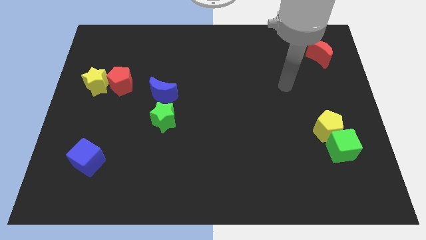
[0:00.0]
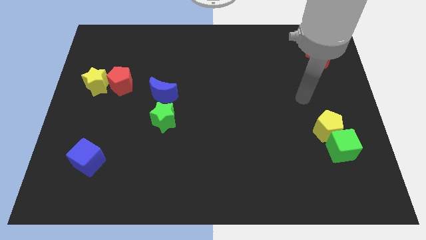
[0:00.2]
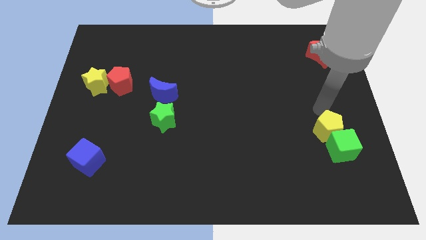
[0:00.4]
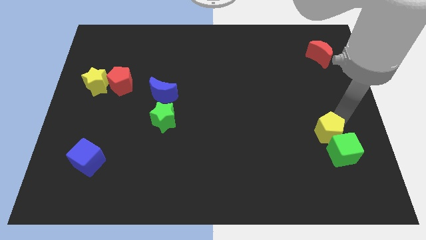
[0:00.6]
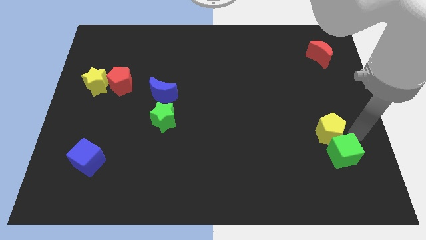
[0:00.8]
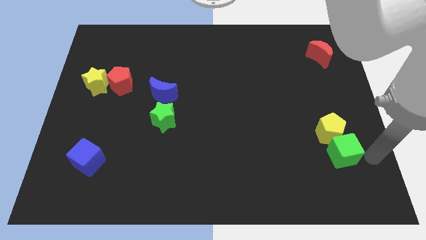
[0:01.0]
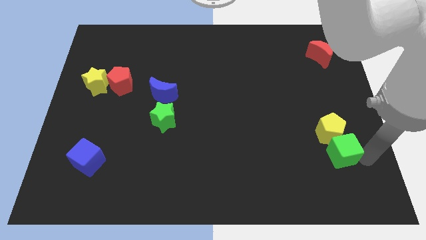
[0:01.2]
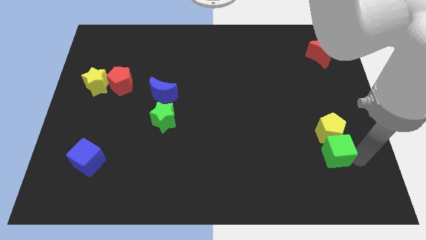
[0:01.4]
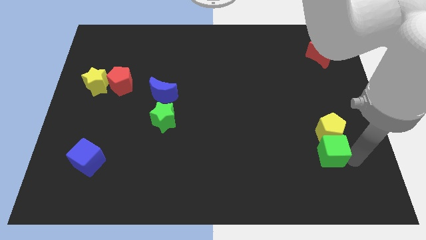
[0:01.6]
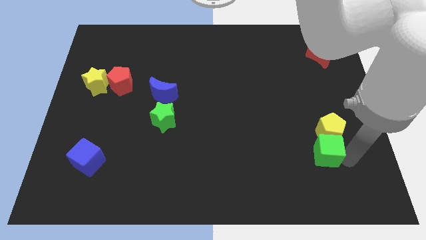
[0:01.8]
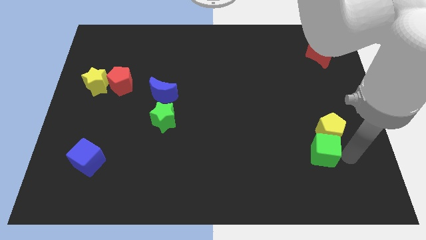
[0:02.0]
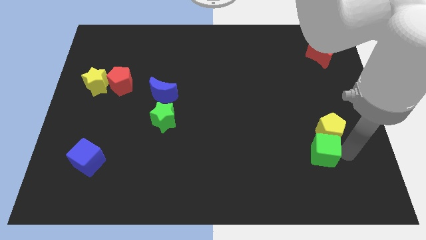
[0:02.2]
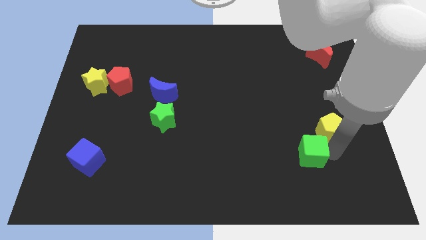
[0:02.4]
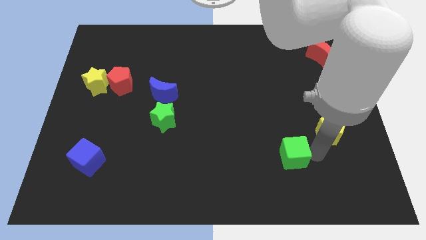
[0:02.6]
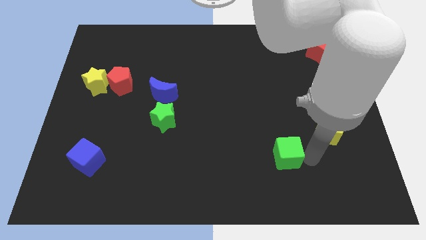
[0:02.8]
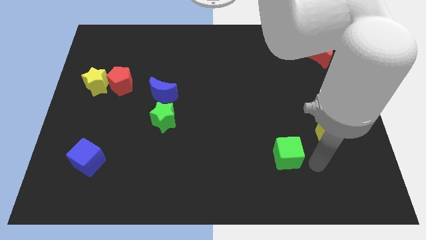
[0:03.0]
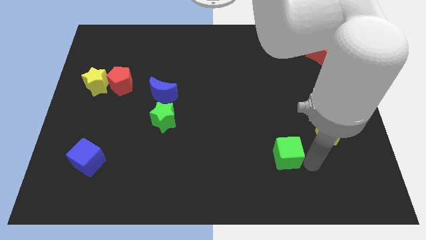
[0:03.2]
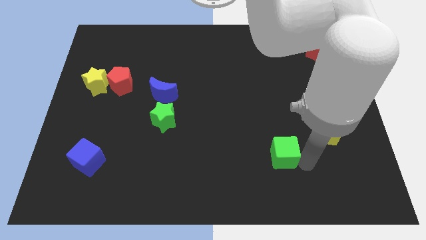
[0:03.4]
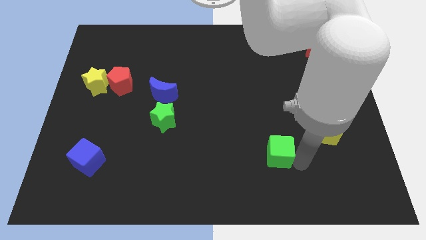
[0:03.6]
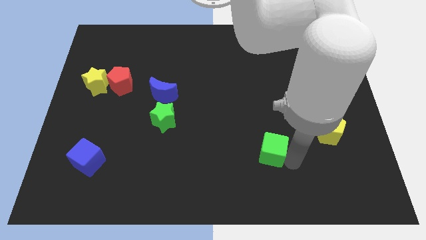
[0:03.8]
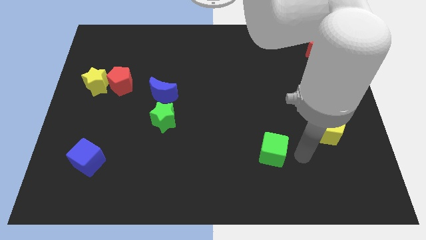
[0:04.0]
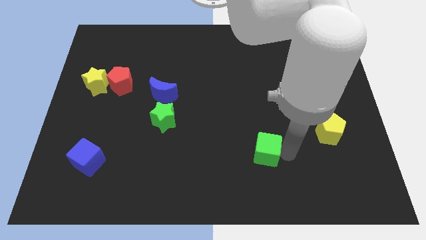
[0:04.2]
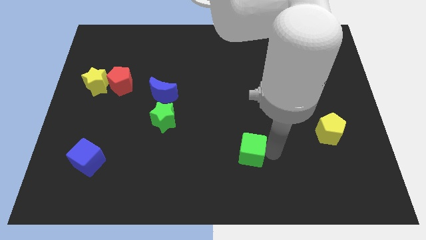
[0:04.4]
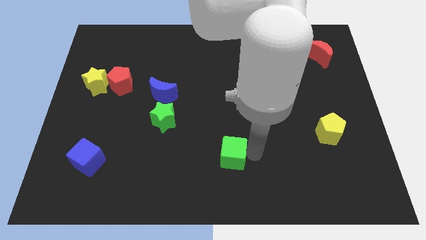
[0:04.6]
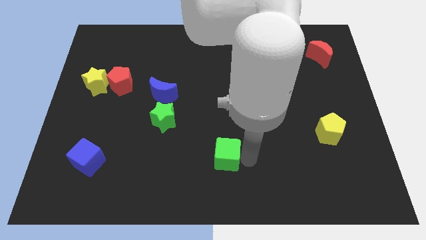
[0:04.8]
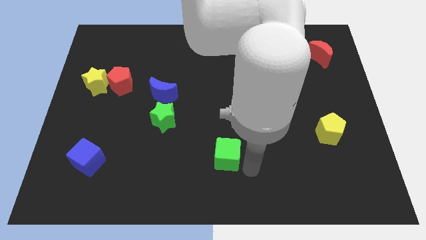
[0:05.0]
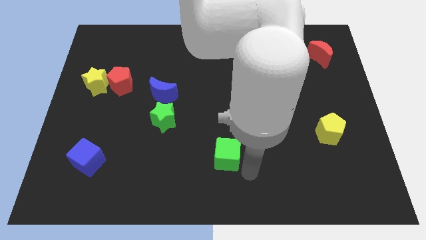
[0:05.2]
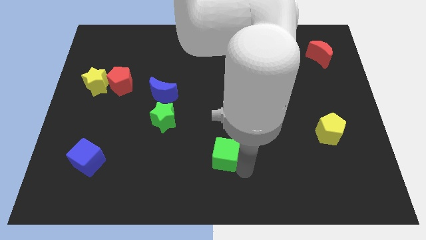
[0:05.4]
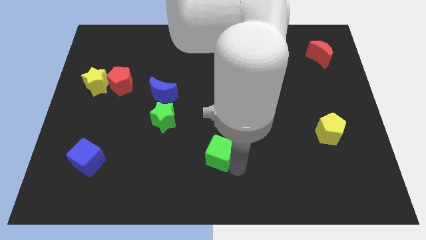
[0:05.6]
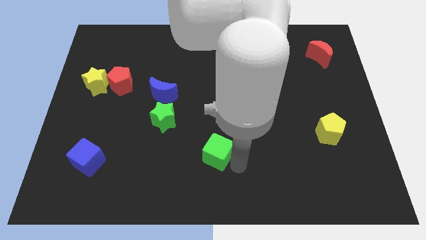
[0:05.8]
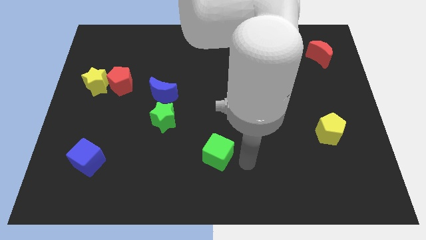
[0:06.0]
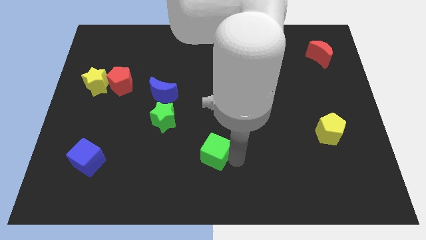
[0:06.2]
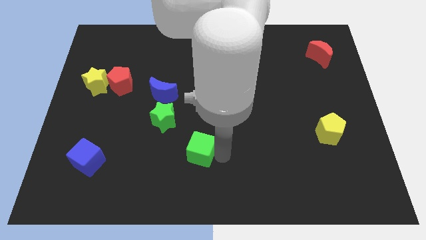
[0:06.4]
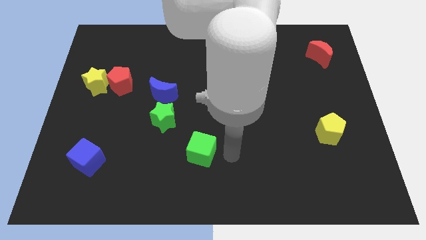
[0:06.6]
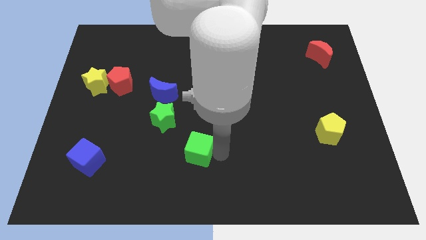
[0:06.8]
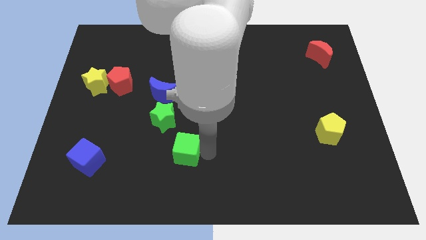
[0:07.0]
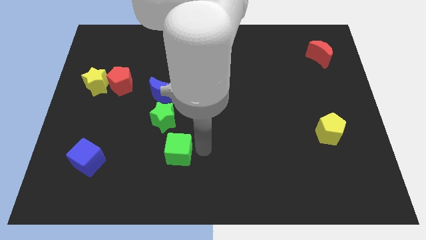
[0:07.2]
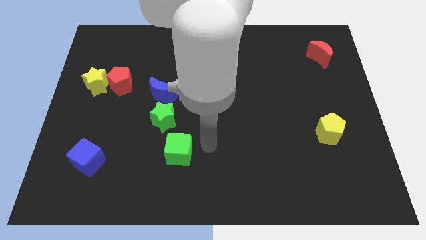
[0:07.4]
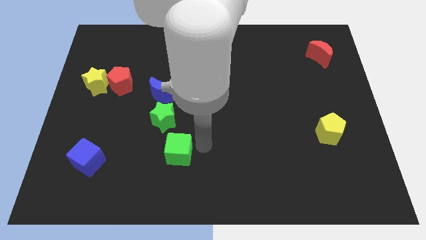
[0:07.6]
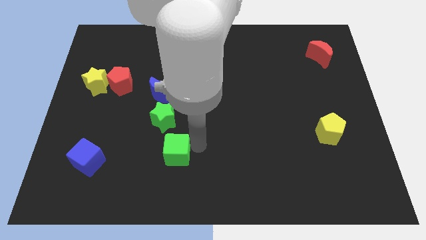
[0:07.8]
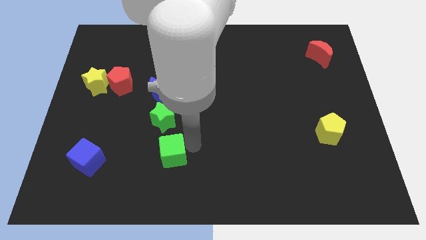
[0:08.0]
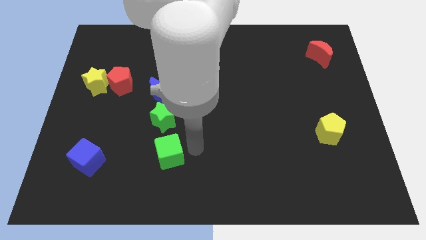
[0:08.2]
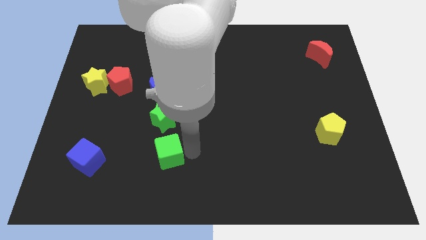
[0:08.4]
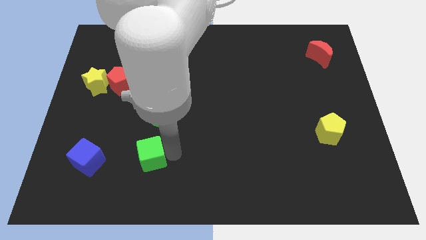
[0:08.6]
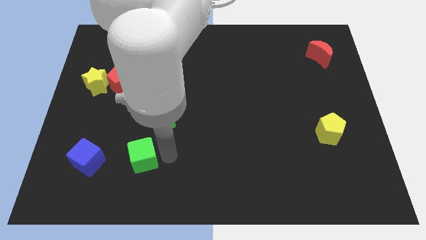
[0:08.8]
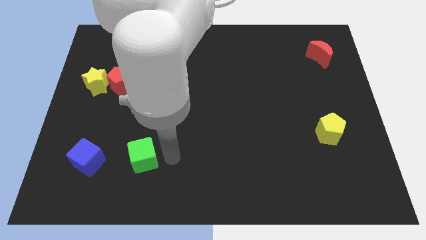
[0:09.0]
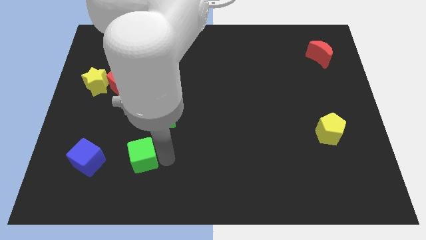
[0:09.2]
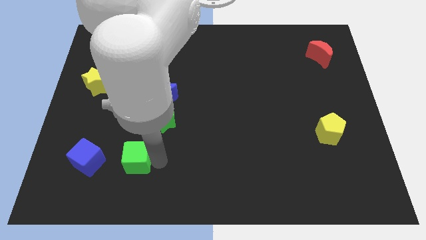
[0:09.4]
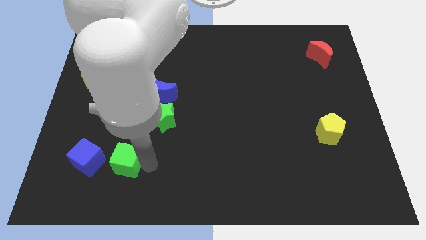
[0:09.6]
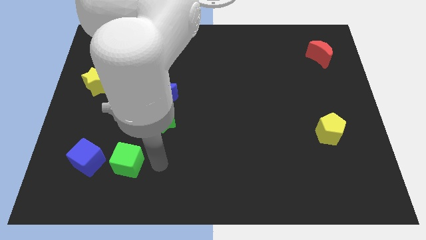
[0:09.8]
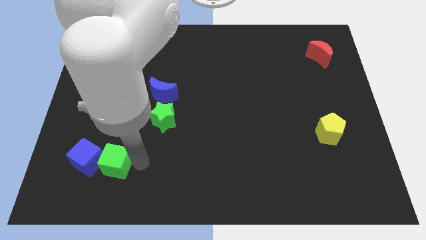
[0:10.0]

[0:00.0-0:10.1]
push the green cube next to the blue cube

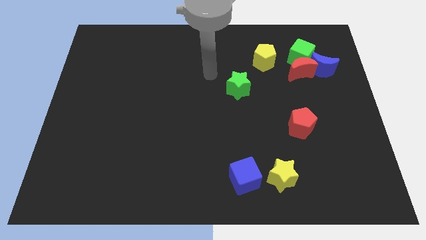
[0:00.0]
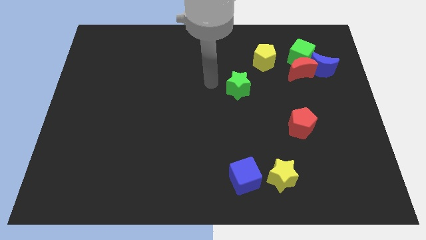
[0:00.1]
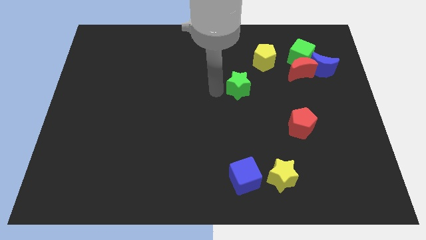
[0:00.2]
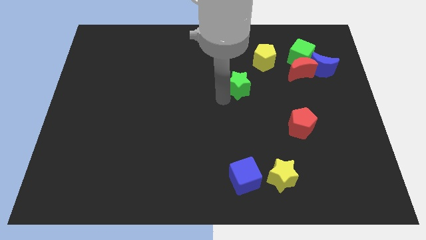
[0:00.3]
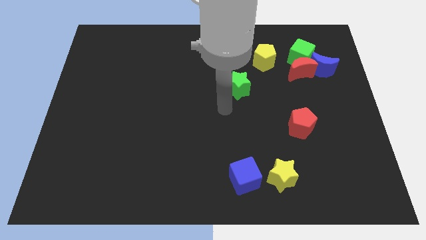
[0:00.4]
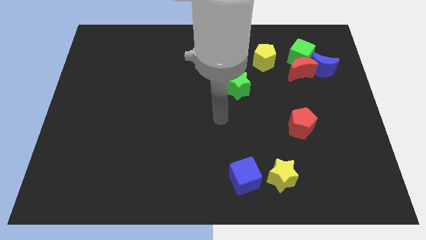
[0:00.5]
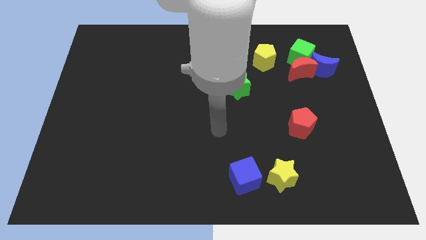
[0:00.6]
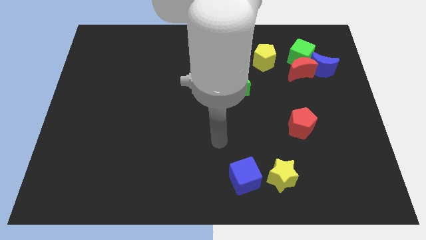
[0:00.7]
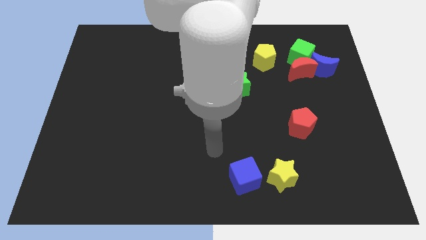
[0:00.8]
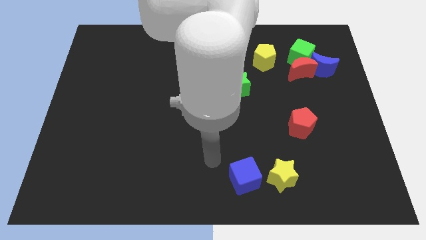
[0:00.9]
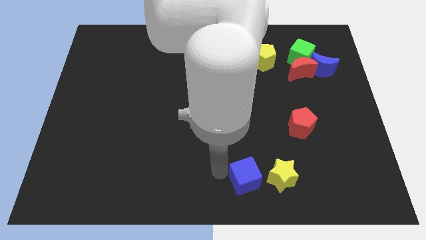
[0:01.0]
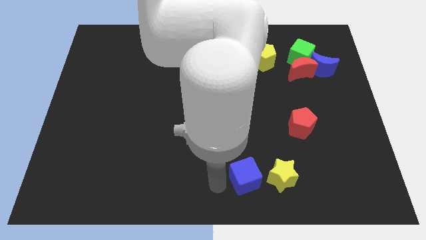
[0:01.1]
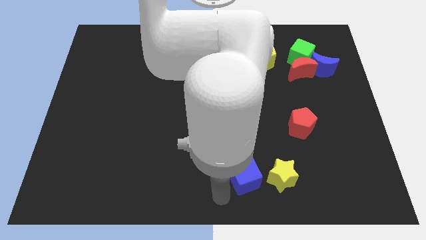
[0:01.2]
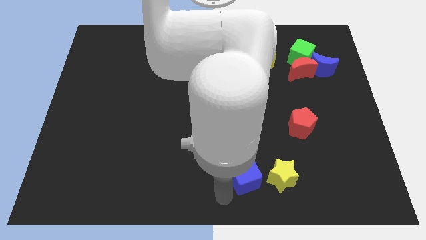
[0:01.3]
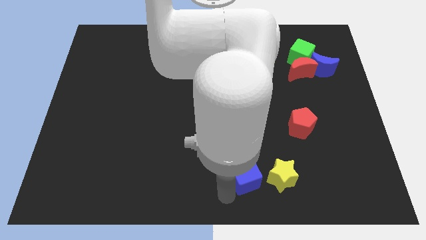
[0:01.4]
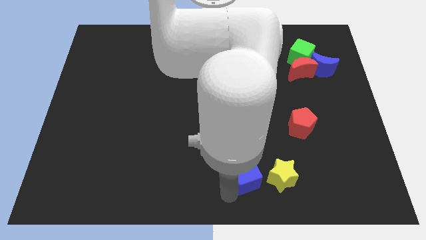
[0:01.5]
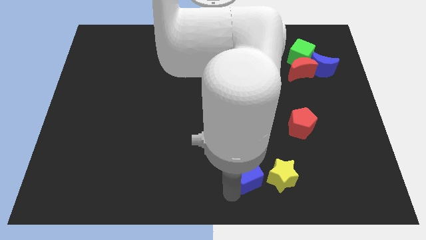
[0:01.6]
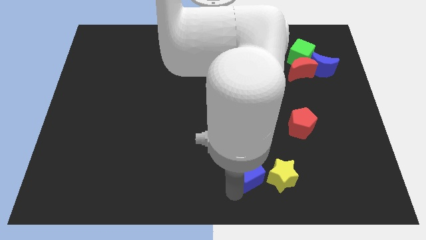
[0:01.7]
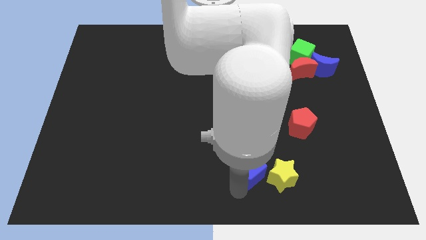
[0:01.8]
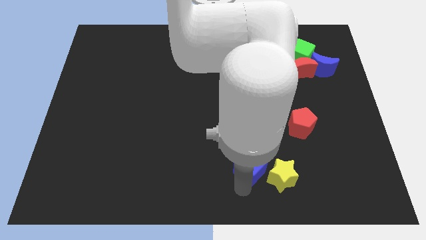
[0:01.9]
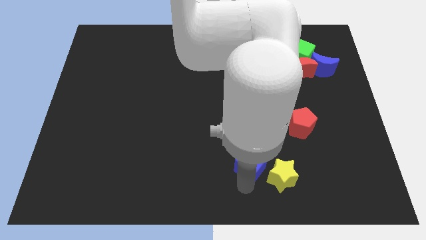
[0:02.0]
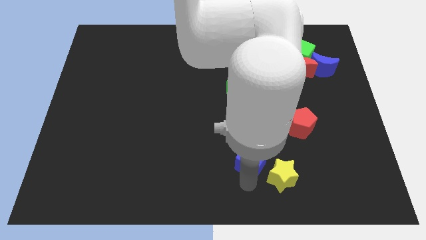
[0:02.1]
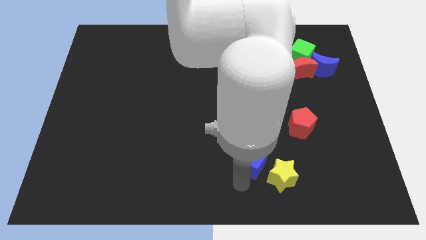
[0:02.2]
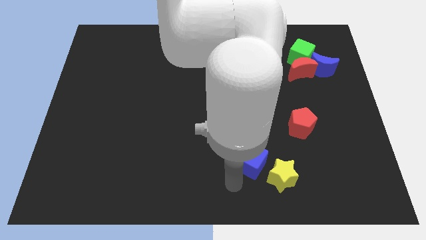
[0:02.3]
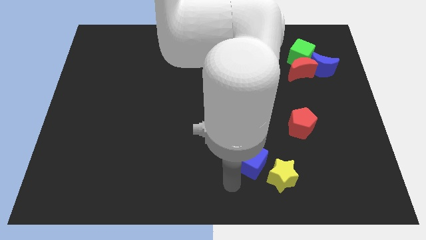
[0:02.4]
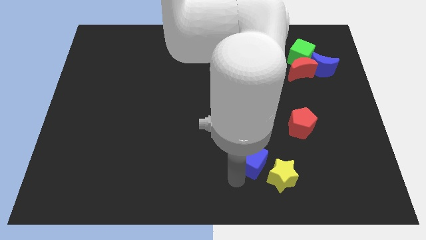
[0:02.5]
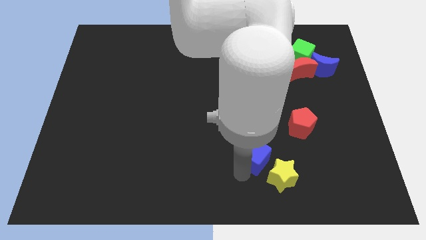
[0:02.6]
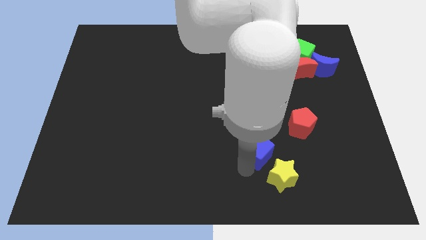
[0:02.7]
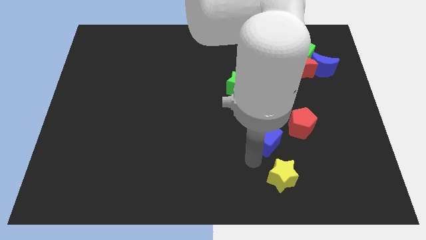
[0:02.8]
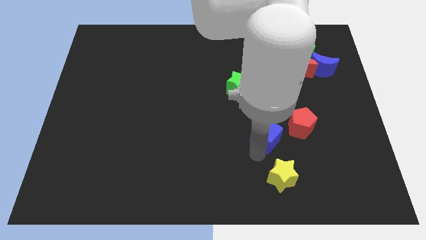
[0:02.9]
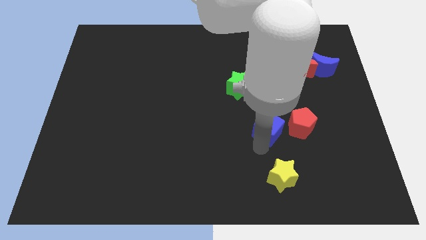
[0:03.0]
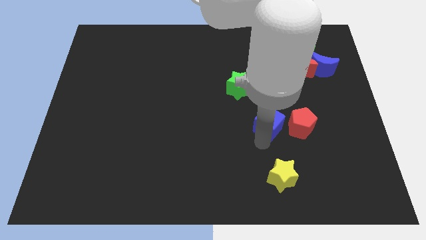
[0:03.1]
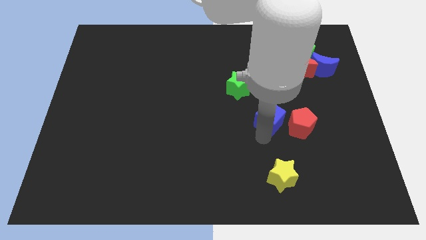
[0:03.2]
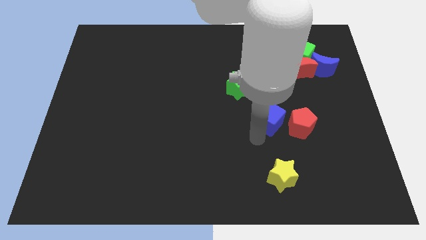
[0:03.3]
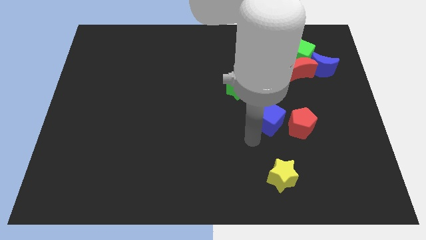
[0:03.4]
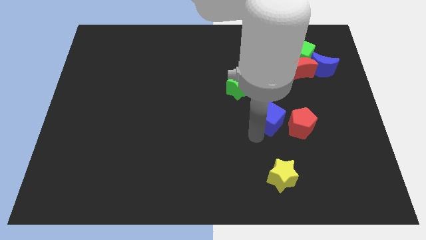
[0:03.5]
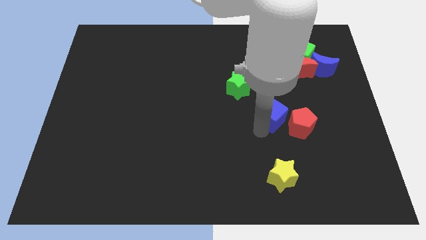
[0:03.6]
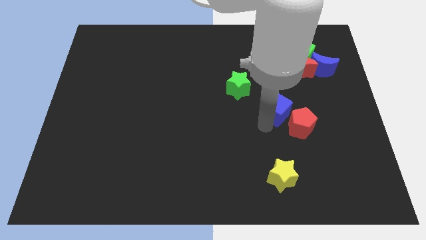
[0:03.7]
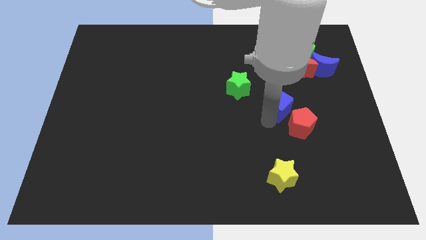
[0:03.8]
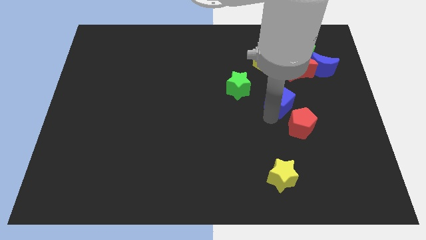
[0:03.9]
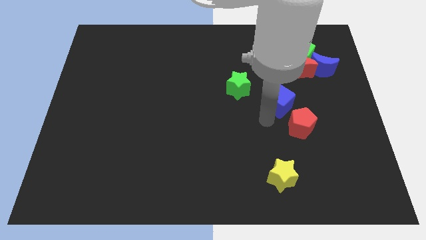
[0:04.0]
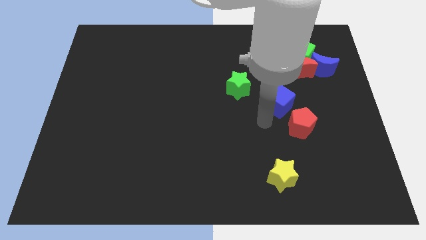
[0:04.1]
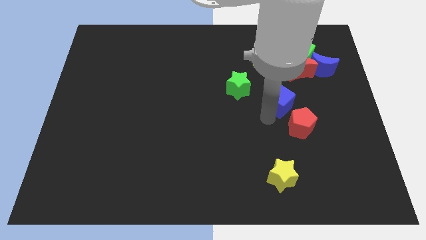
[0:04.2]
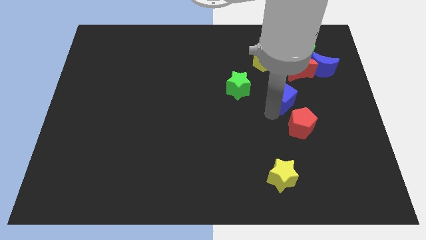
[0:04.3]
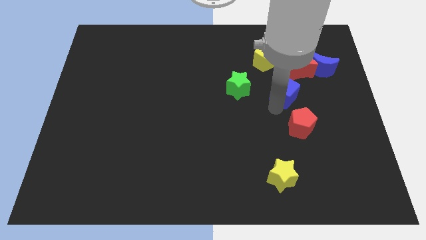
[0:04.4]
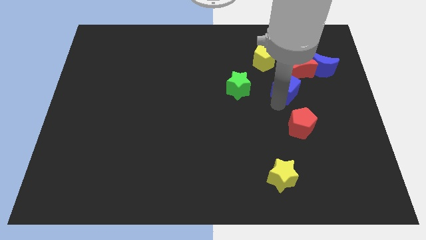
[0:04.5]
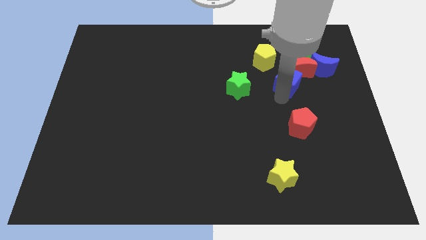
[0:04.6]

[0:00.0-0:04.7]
push the blue cube next to the red moon
